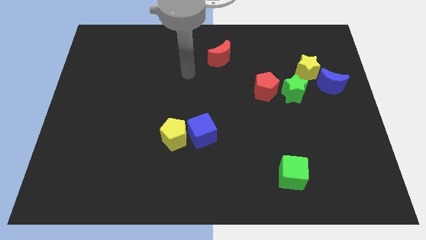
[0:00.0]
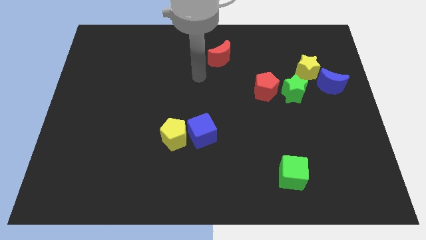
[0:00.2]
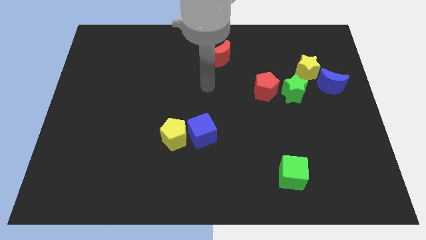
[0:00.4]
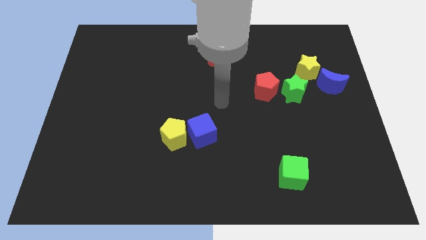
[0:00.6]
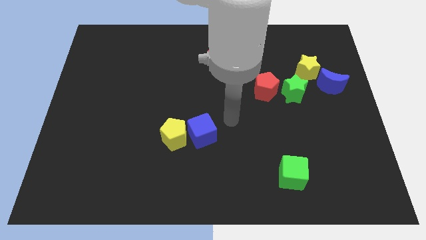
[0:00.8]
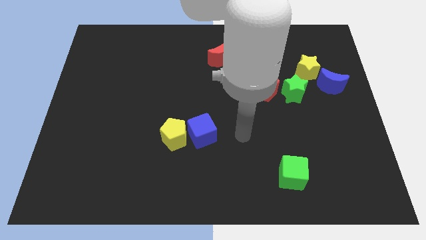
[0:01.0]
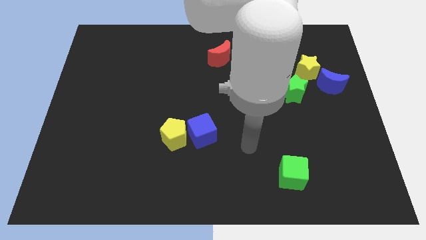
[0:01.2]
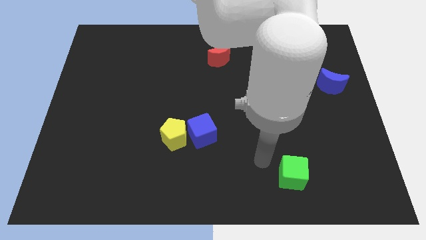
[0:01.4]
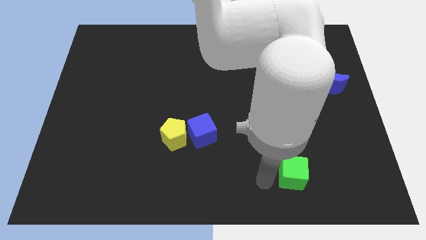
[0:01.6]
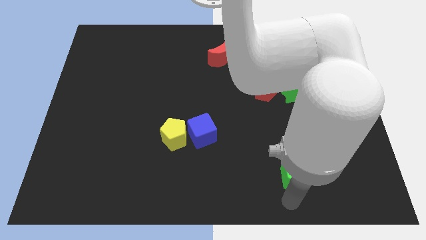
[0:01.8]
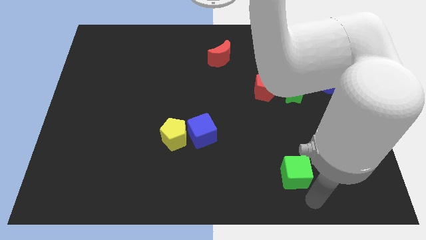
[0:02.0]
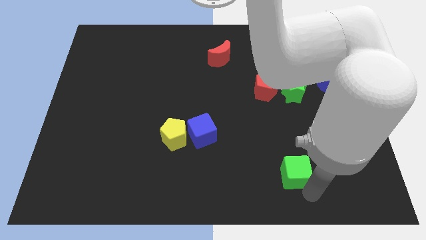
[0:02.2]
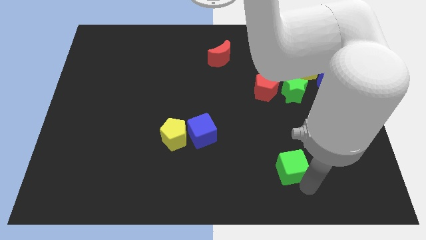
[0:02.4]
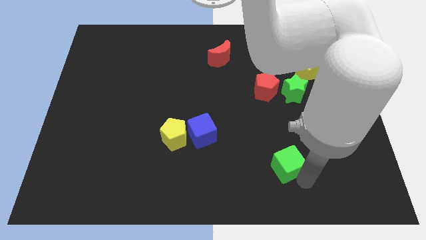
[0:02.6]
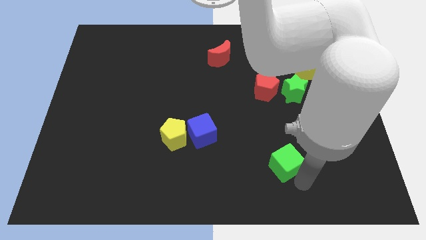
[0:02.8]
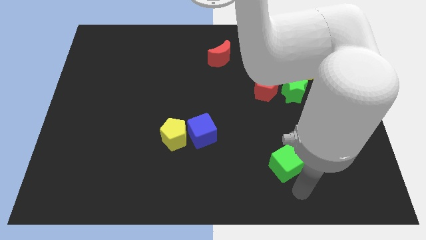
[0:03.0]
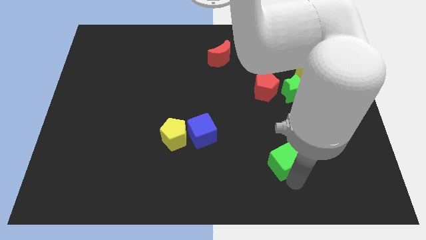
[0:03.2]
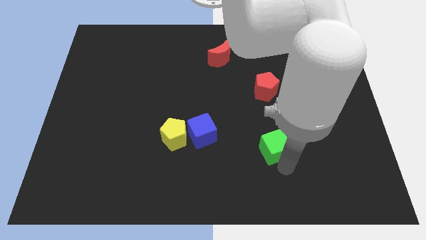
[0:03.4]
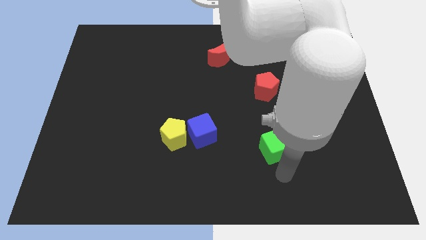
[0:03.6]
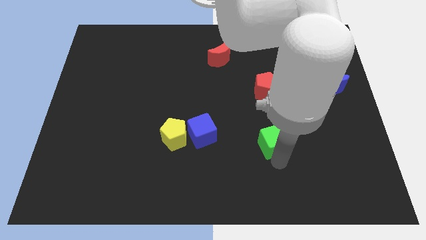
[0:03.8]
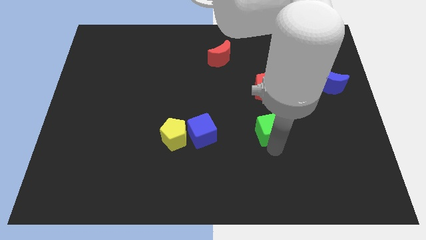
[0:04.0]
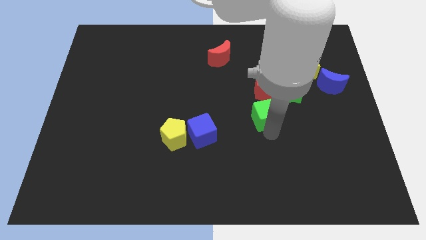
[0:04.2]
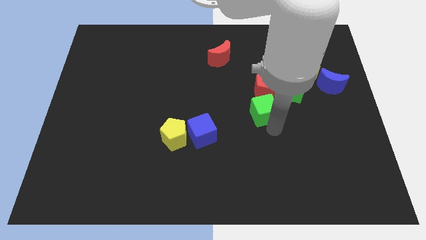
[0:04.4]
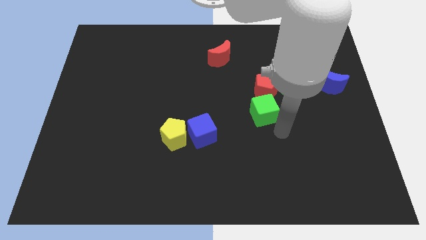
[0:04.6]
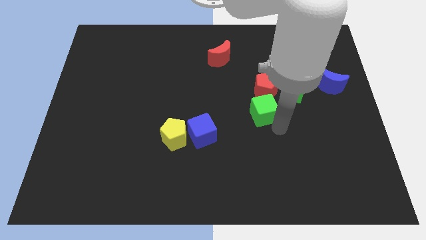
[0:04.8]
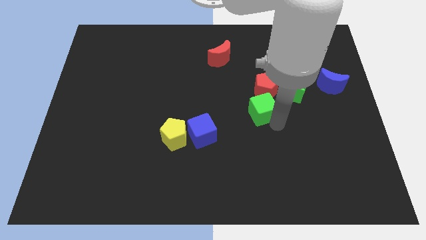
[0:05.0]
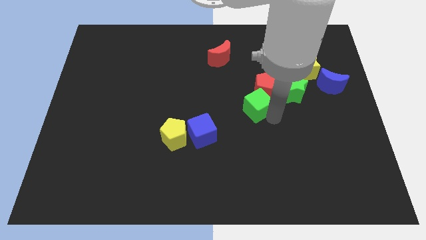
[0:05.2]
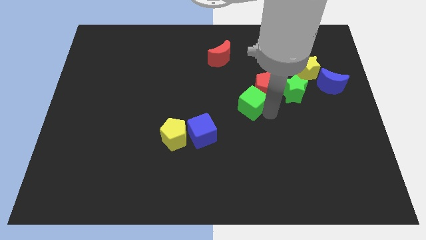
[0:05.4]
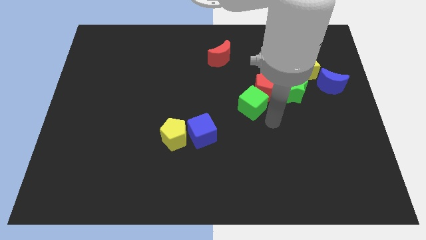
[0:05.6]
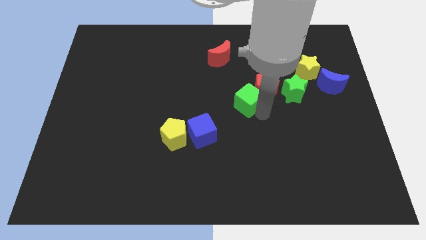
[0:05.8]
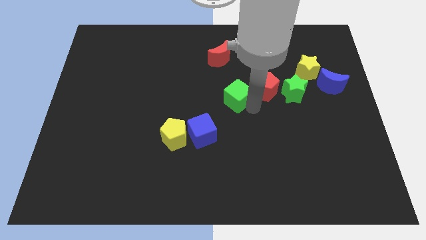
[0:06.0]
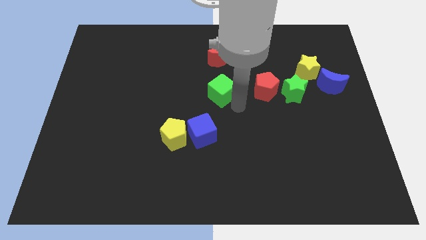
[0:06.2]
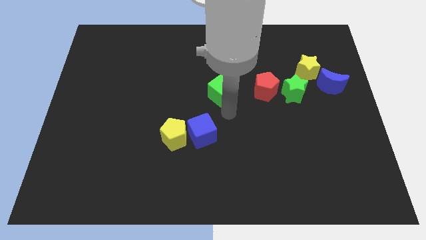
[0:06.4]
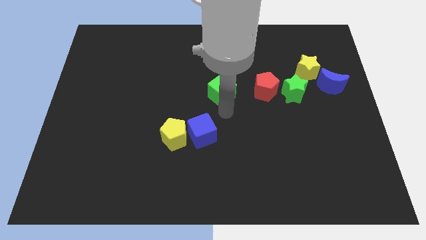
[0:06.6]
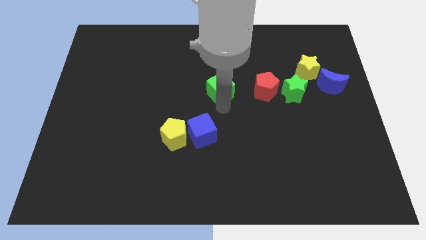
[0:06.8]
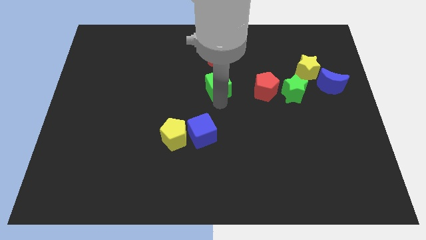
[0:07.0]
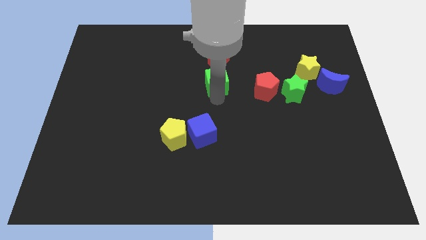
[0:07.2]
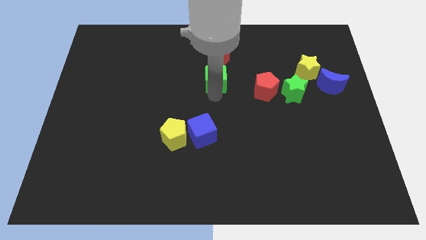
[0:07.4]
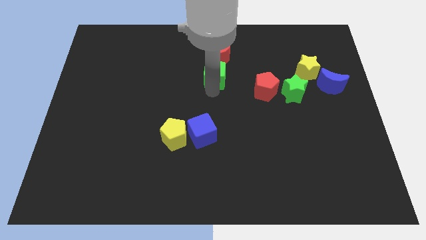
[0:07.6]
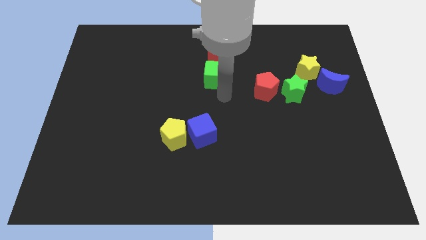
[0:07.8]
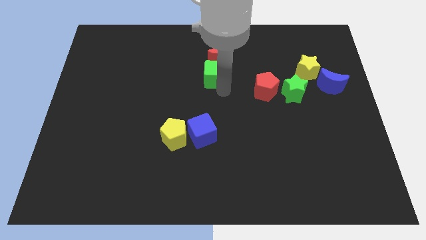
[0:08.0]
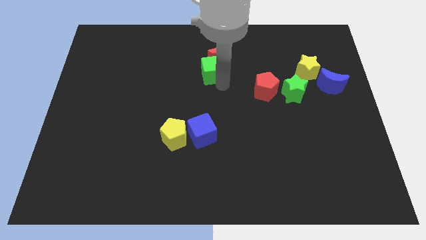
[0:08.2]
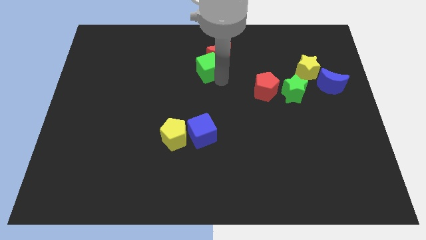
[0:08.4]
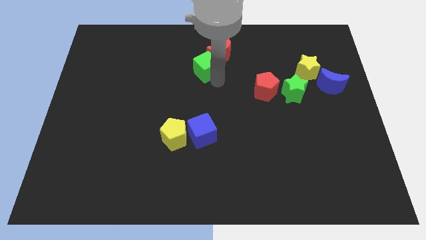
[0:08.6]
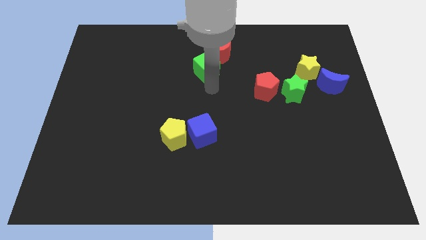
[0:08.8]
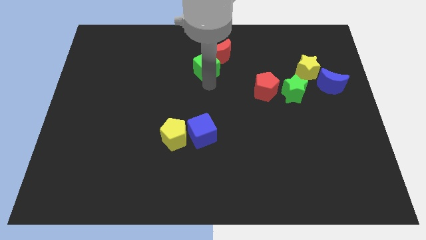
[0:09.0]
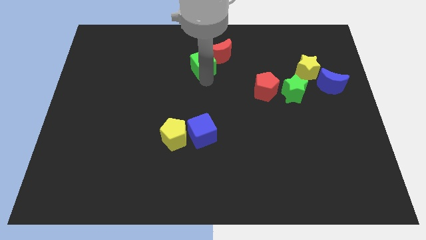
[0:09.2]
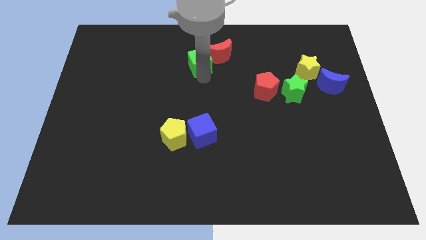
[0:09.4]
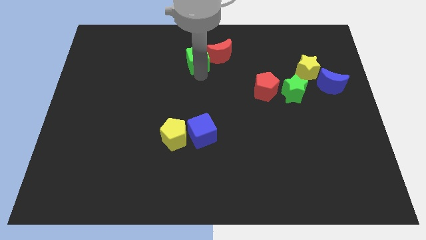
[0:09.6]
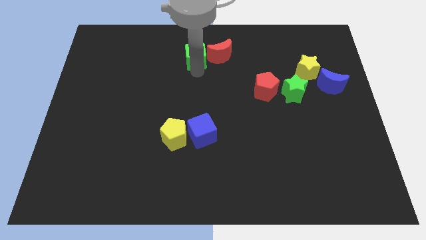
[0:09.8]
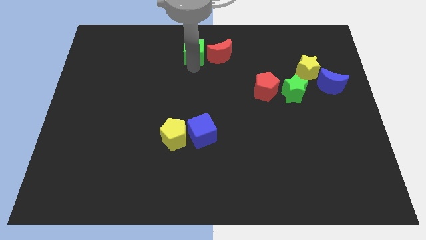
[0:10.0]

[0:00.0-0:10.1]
move the green cube to the top side

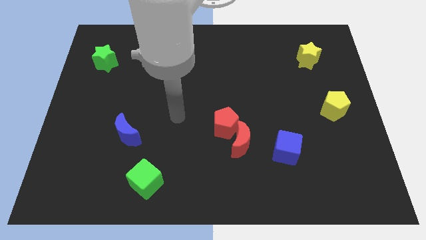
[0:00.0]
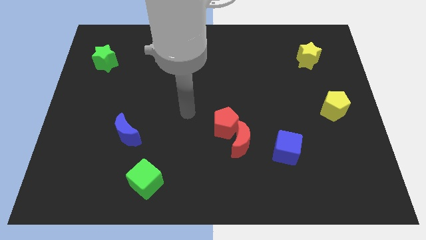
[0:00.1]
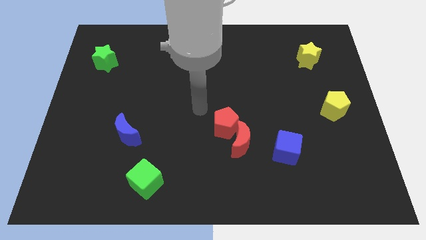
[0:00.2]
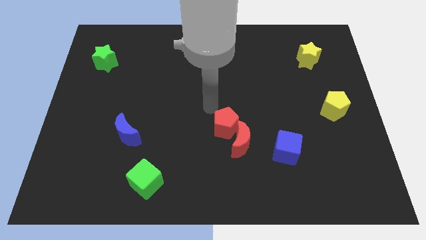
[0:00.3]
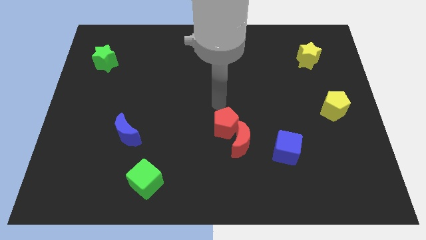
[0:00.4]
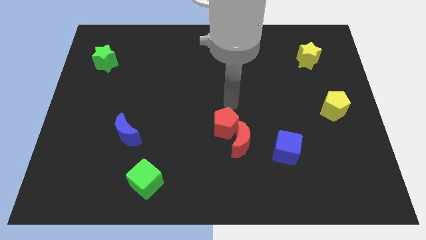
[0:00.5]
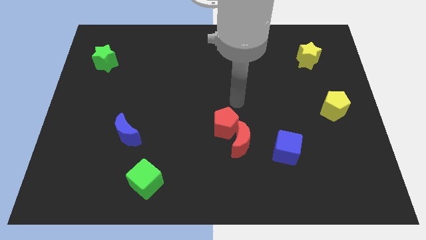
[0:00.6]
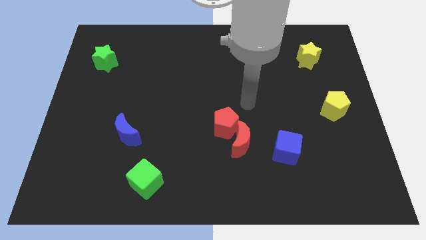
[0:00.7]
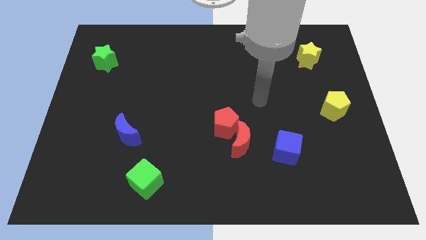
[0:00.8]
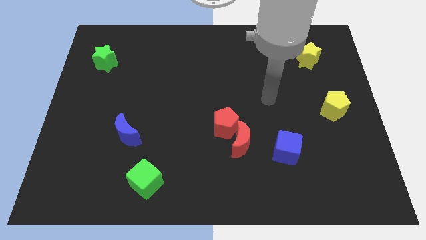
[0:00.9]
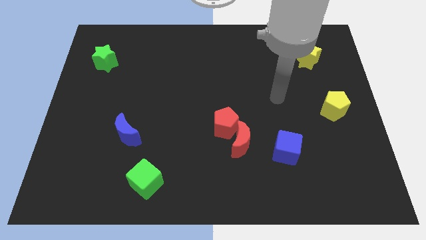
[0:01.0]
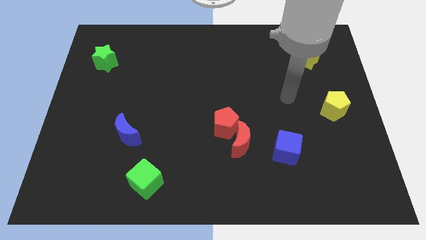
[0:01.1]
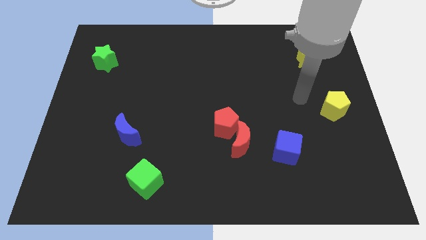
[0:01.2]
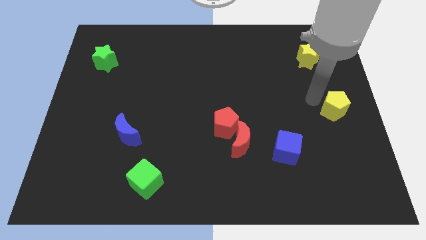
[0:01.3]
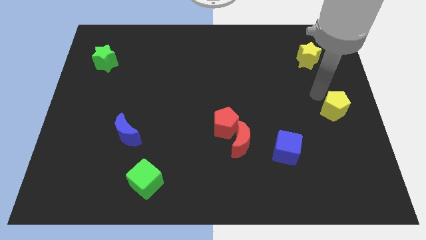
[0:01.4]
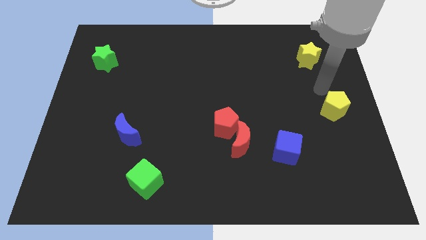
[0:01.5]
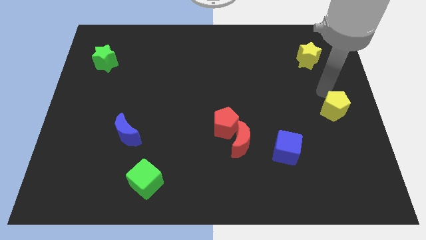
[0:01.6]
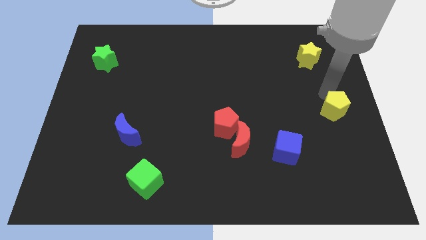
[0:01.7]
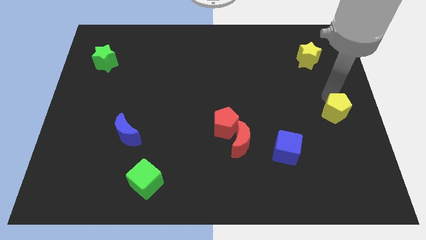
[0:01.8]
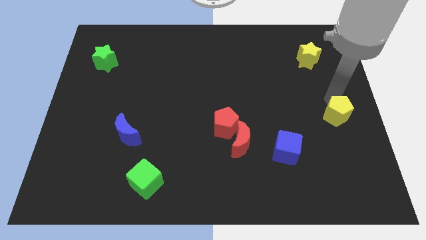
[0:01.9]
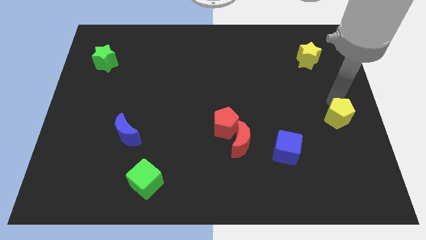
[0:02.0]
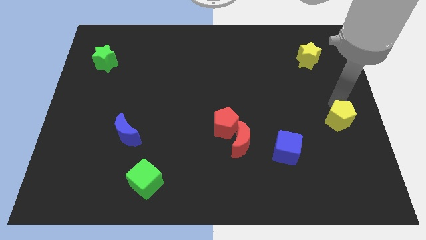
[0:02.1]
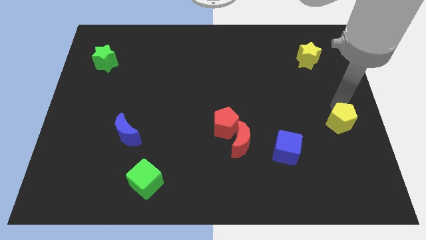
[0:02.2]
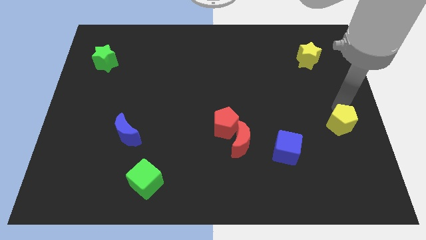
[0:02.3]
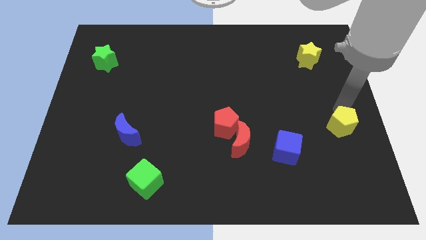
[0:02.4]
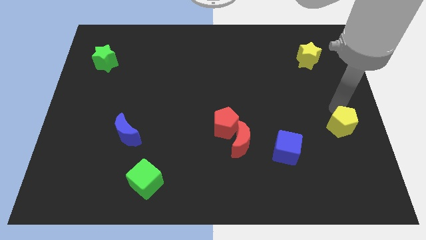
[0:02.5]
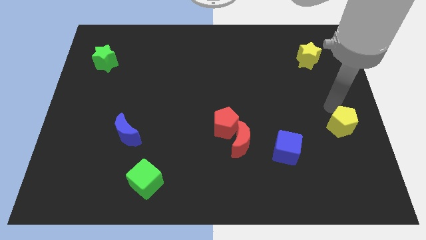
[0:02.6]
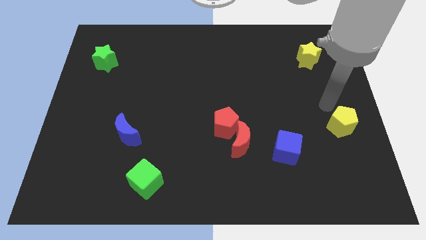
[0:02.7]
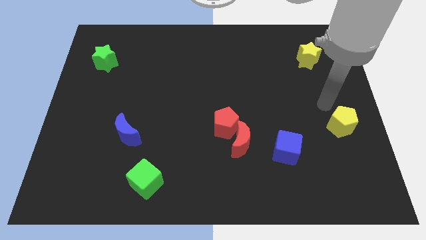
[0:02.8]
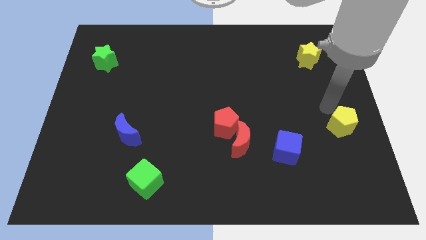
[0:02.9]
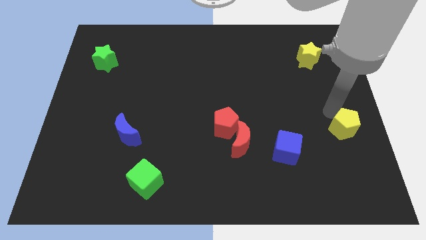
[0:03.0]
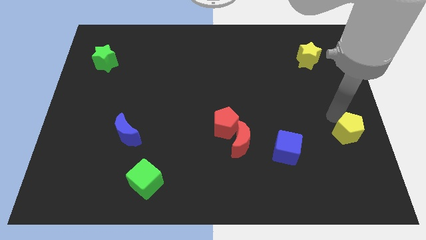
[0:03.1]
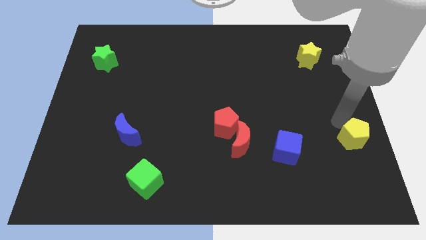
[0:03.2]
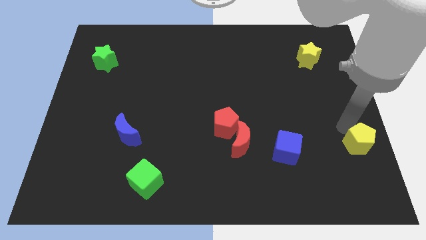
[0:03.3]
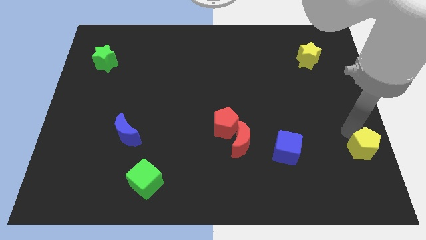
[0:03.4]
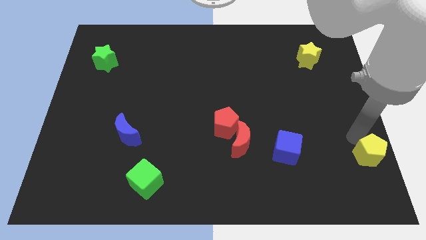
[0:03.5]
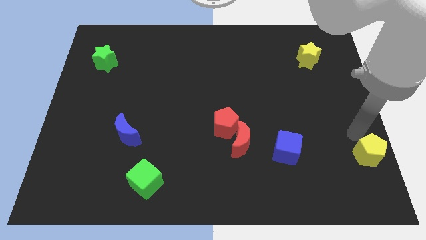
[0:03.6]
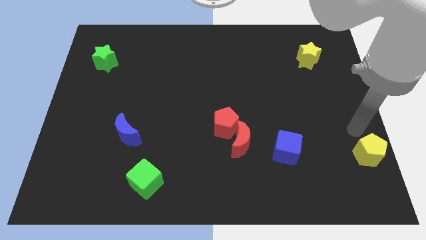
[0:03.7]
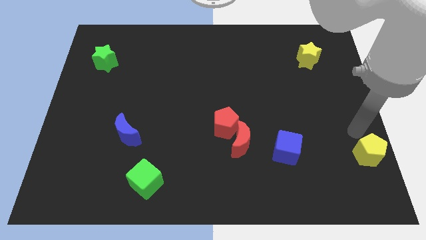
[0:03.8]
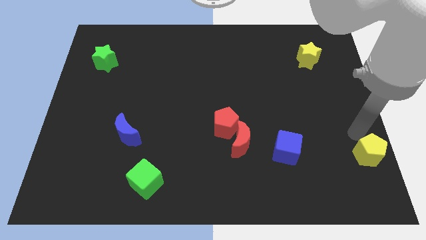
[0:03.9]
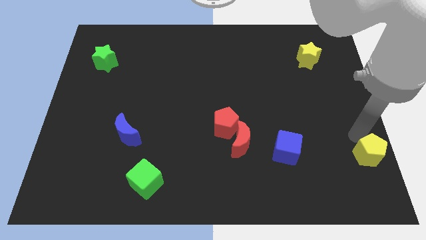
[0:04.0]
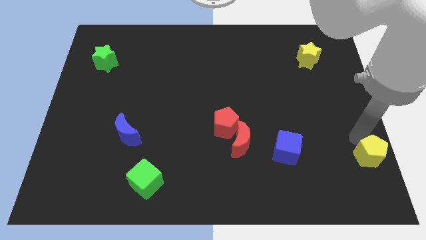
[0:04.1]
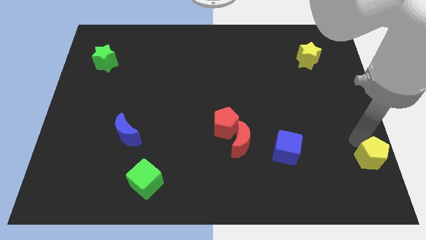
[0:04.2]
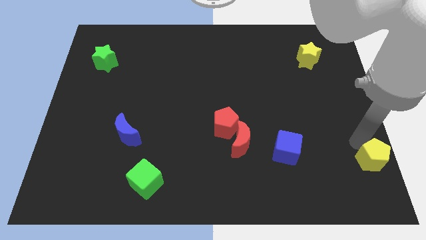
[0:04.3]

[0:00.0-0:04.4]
push the yellow pentagon to the bottom right of the board
